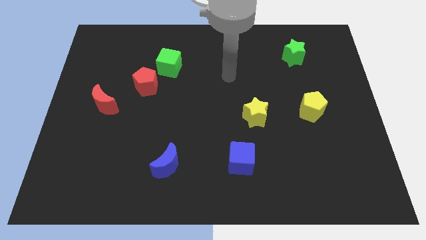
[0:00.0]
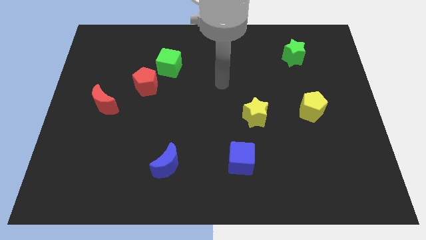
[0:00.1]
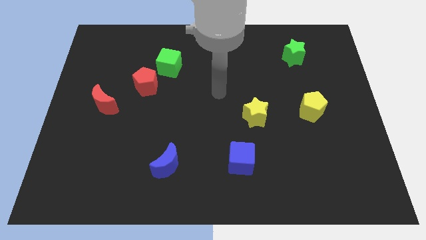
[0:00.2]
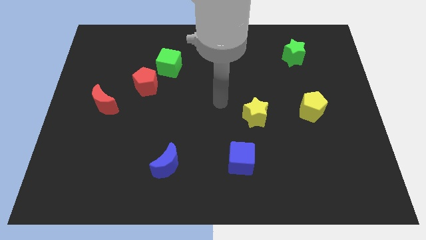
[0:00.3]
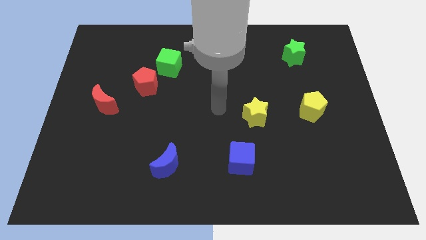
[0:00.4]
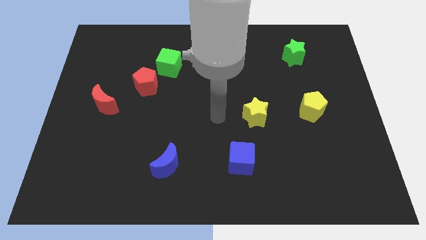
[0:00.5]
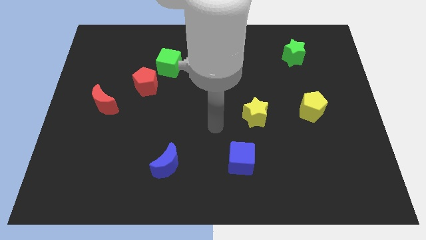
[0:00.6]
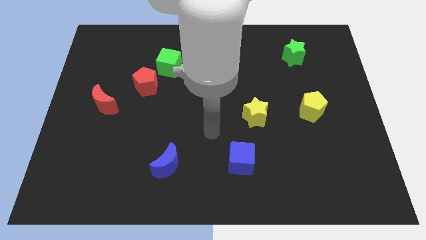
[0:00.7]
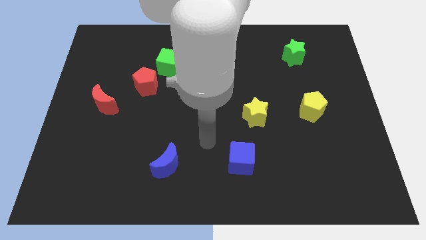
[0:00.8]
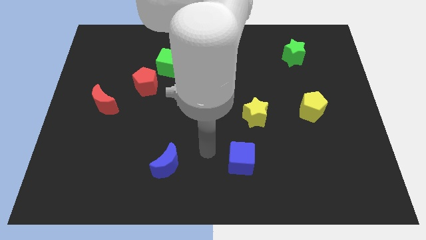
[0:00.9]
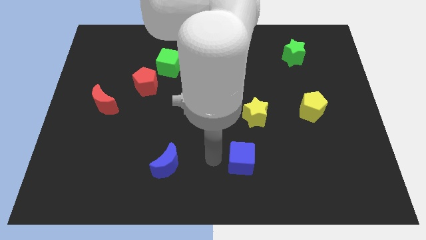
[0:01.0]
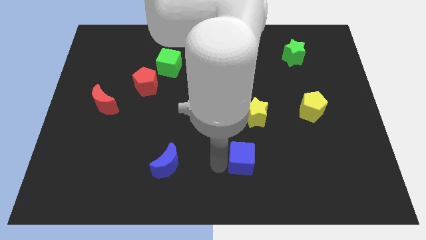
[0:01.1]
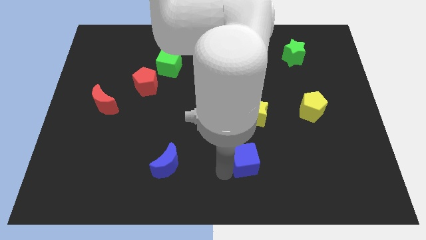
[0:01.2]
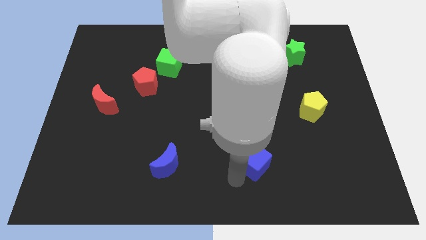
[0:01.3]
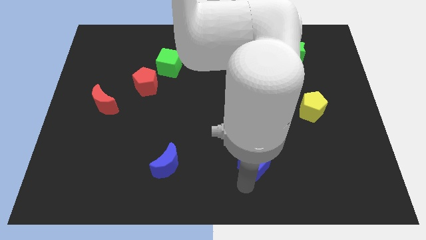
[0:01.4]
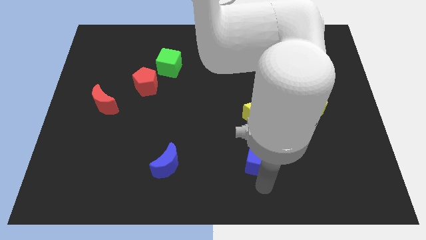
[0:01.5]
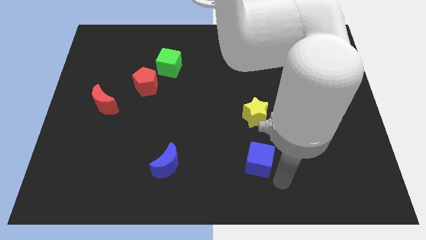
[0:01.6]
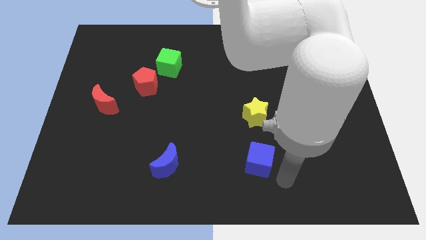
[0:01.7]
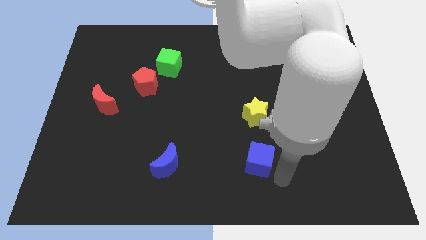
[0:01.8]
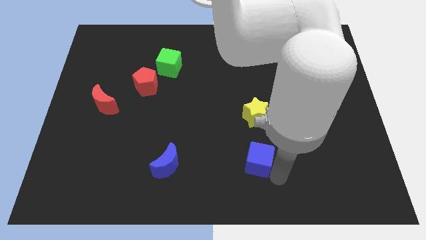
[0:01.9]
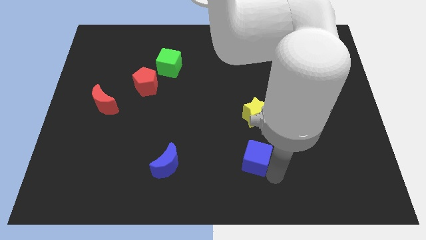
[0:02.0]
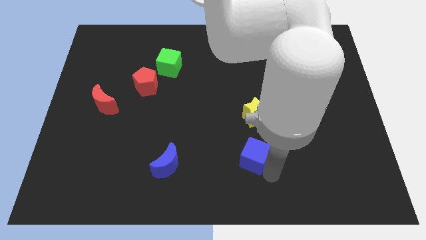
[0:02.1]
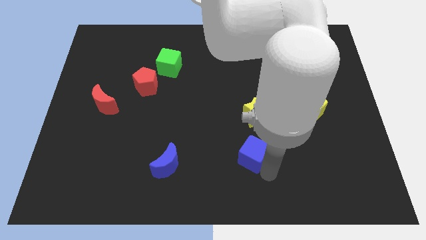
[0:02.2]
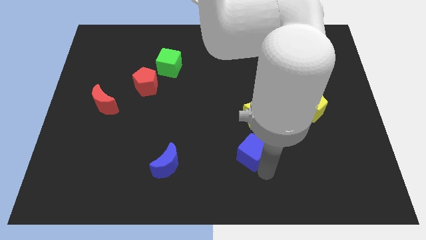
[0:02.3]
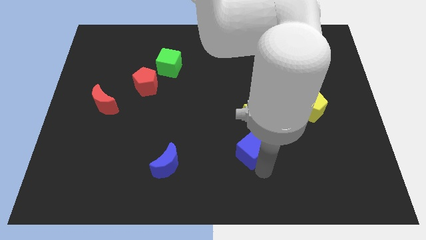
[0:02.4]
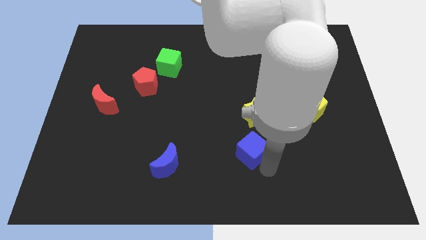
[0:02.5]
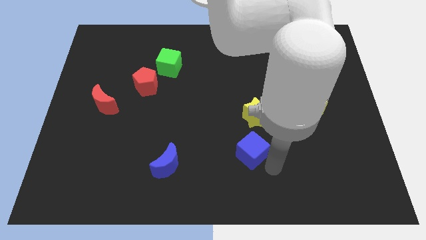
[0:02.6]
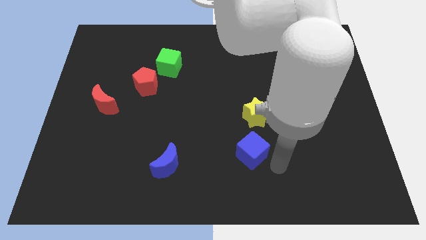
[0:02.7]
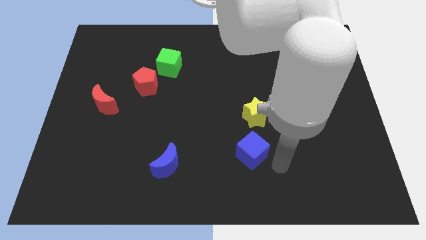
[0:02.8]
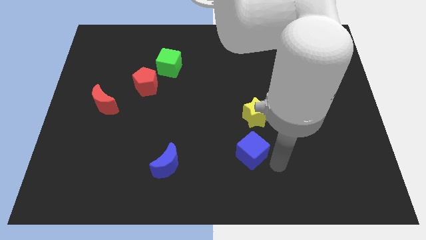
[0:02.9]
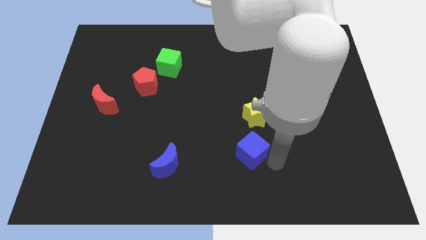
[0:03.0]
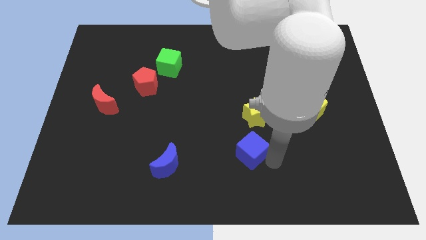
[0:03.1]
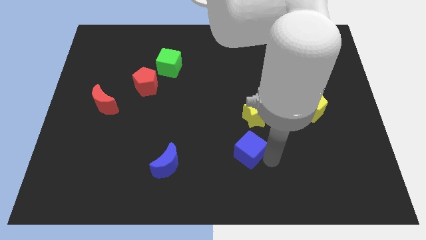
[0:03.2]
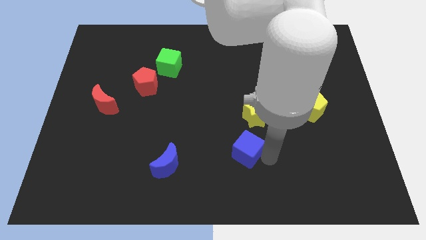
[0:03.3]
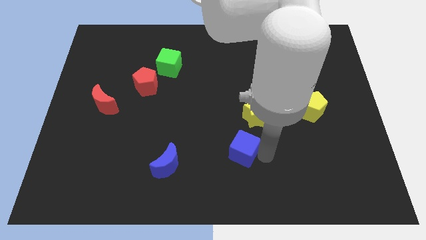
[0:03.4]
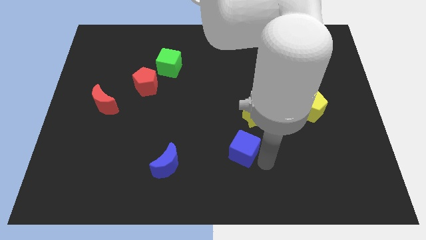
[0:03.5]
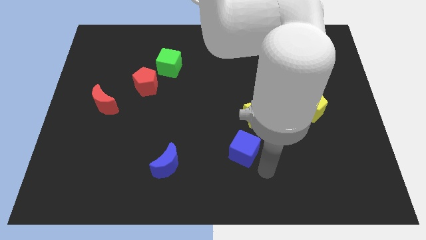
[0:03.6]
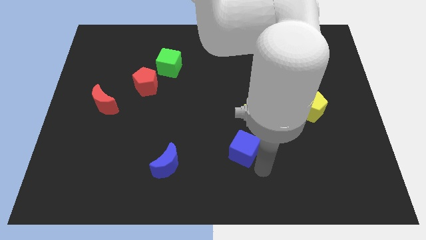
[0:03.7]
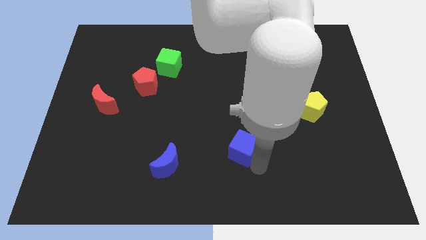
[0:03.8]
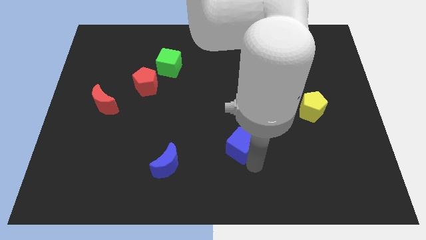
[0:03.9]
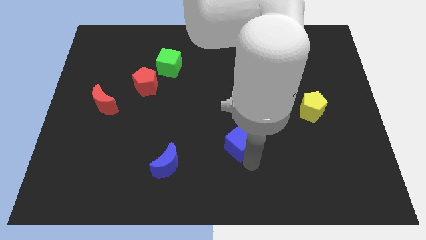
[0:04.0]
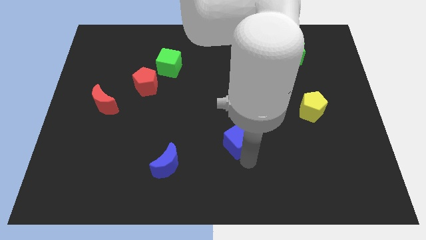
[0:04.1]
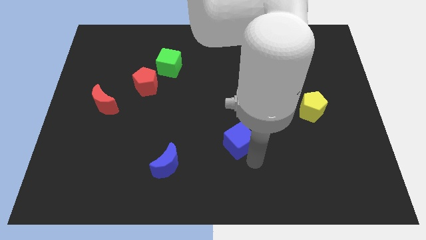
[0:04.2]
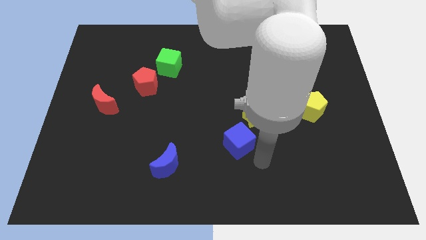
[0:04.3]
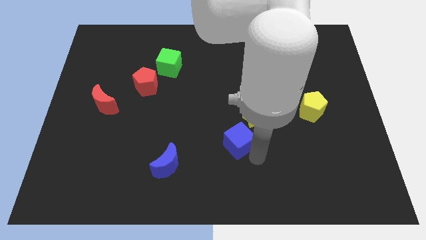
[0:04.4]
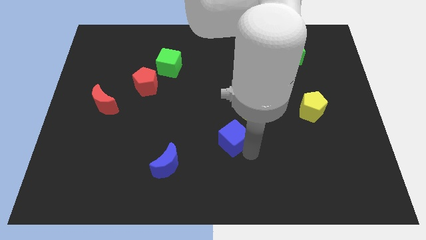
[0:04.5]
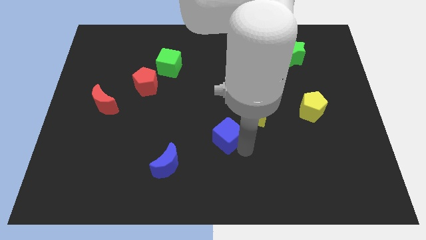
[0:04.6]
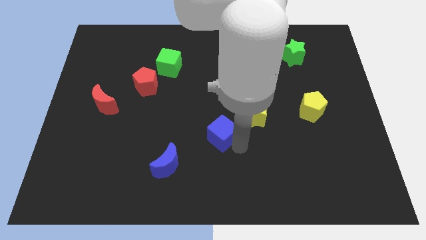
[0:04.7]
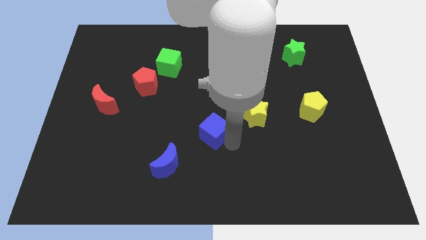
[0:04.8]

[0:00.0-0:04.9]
push the blue cube left of the yellow star

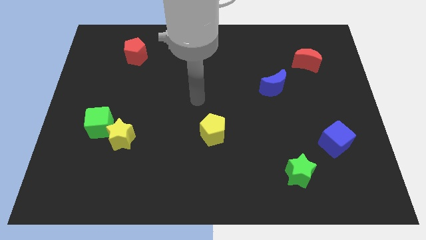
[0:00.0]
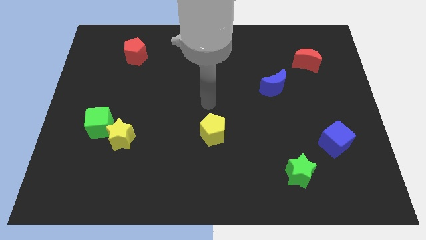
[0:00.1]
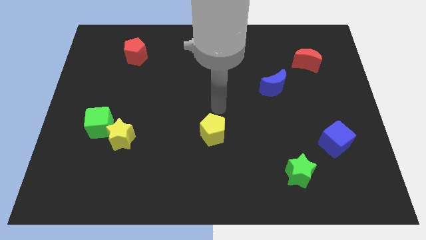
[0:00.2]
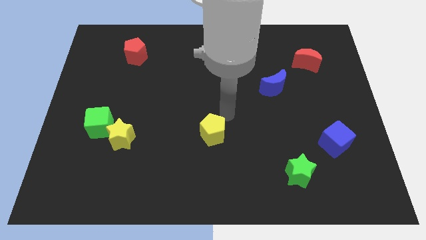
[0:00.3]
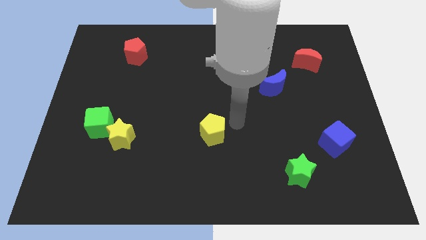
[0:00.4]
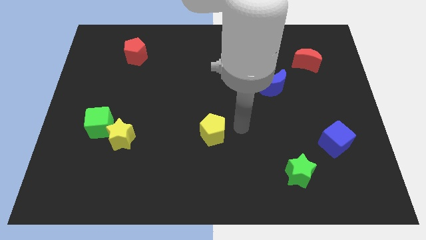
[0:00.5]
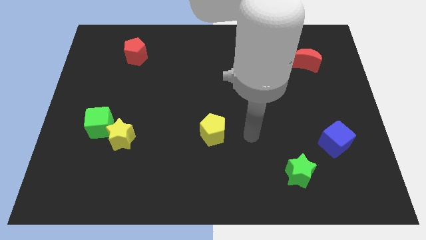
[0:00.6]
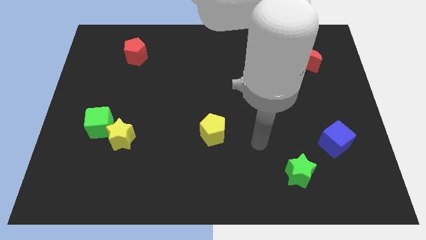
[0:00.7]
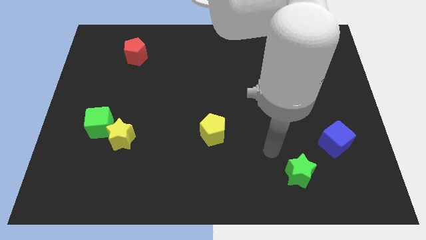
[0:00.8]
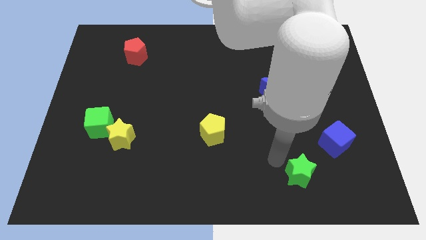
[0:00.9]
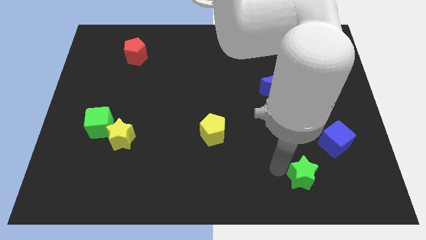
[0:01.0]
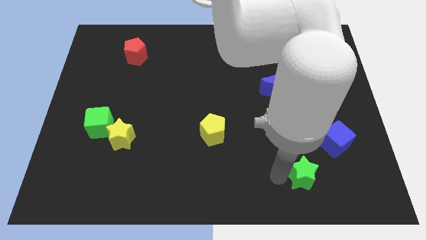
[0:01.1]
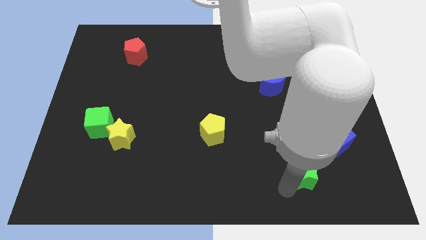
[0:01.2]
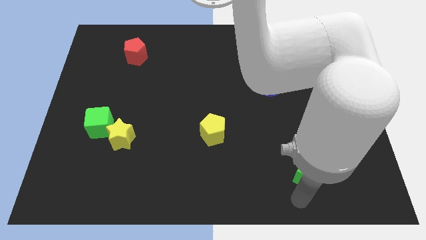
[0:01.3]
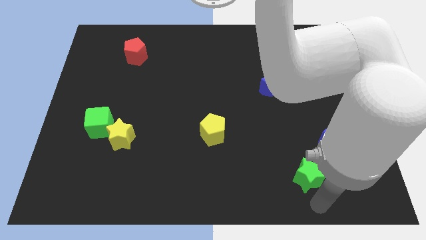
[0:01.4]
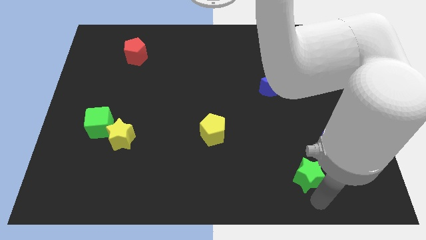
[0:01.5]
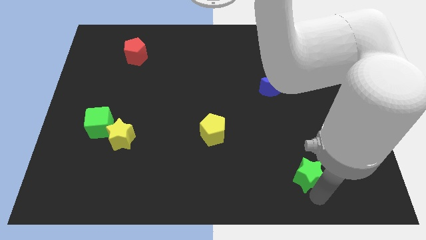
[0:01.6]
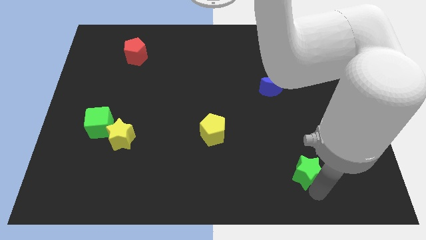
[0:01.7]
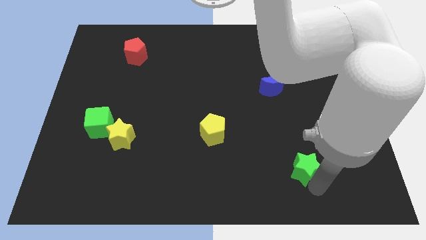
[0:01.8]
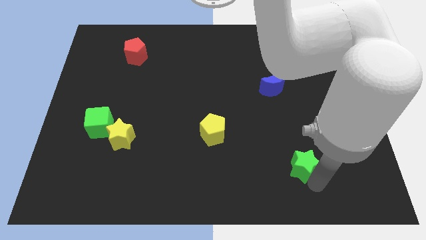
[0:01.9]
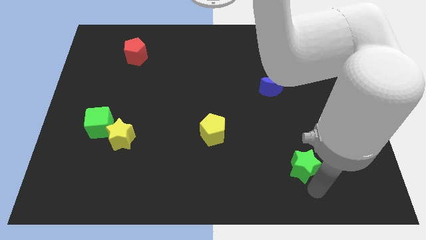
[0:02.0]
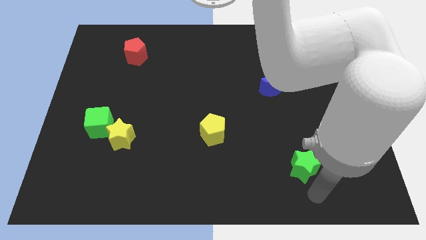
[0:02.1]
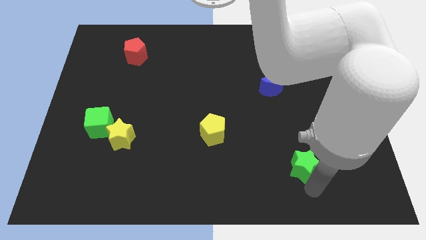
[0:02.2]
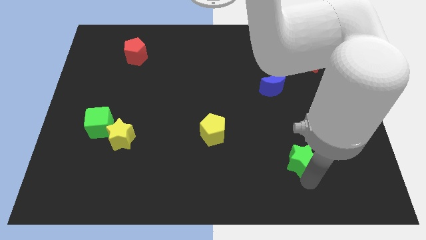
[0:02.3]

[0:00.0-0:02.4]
move the green star left of the blue cube
